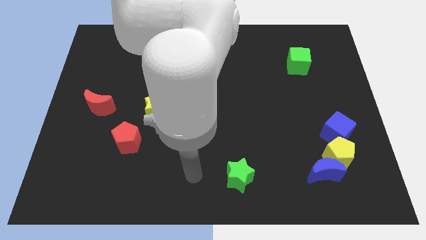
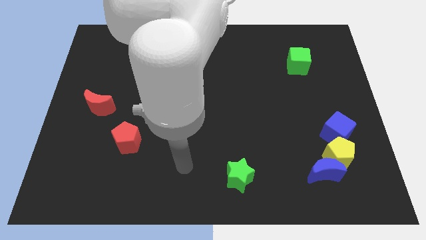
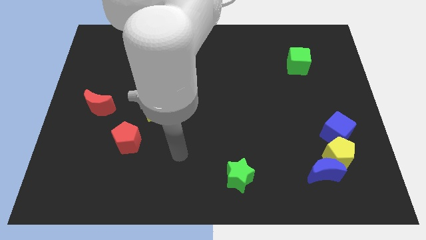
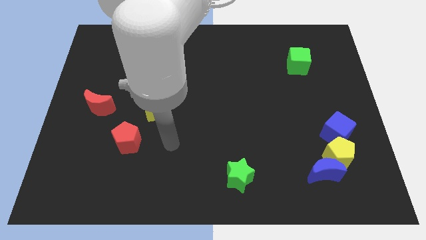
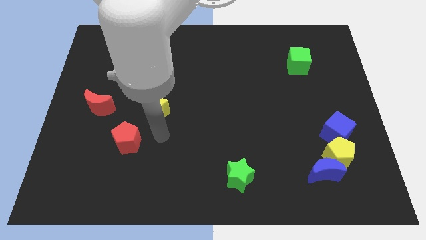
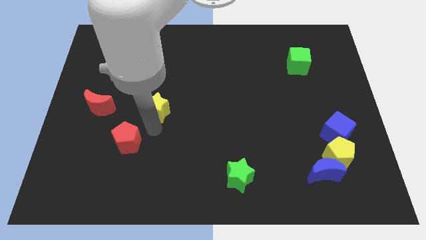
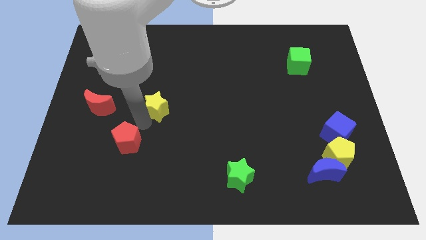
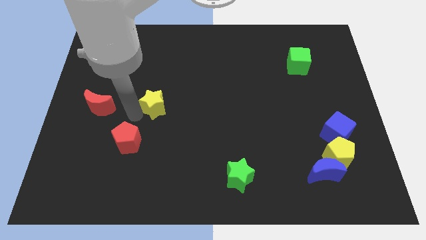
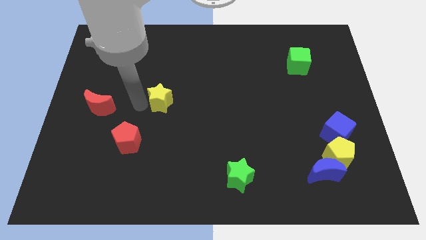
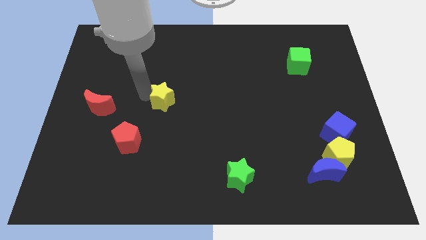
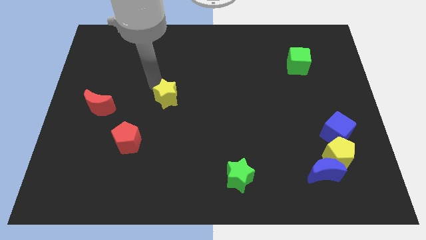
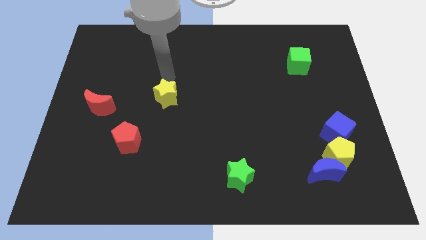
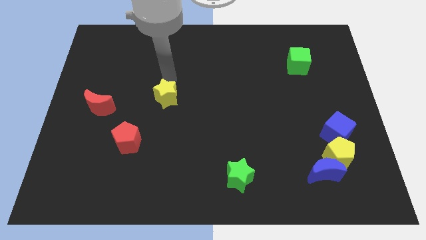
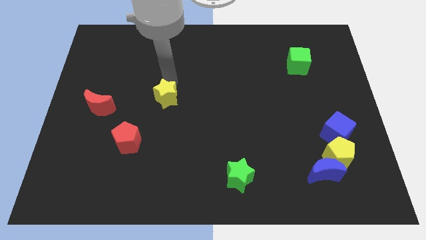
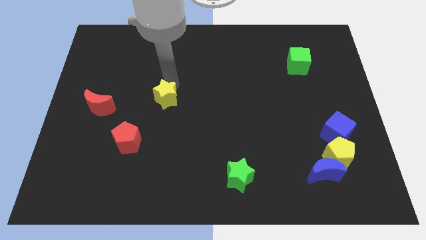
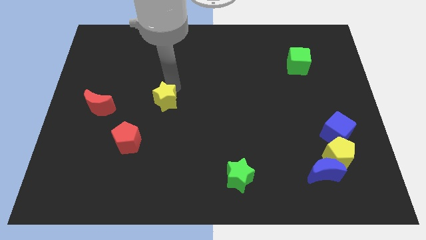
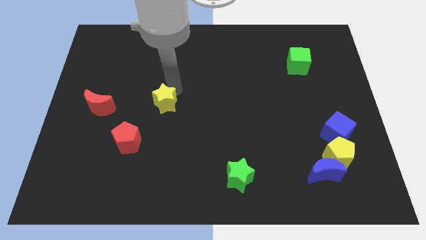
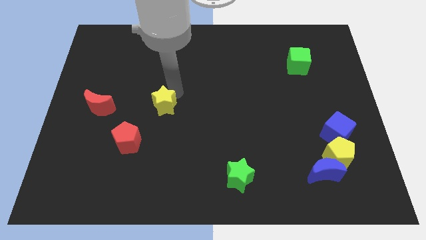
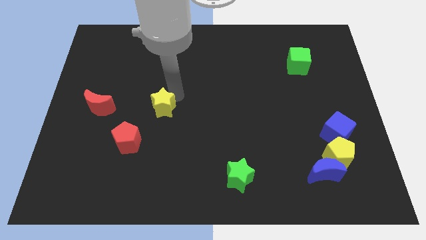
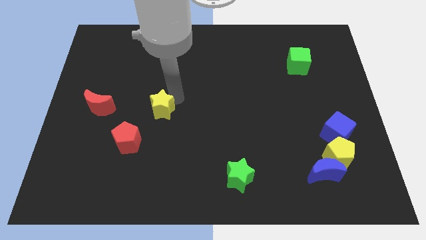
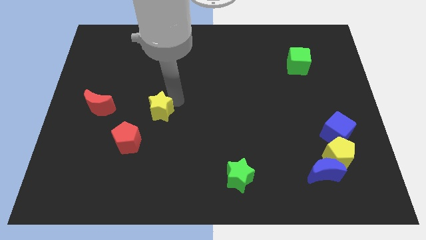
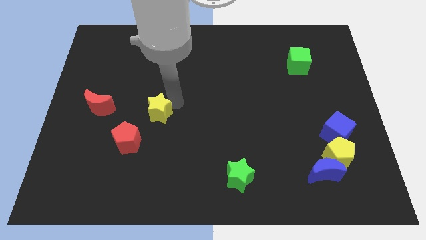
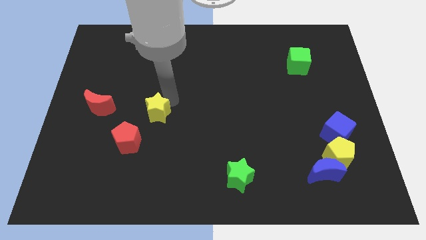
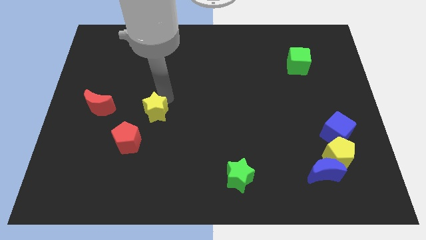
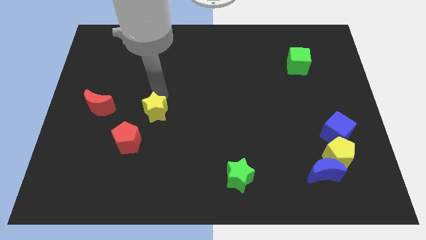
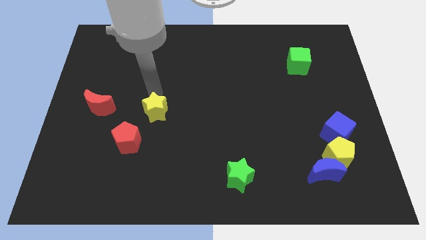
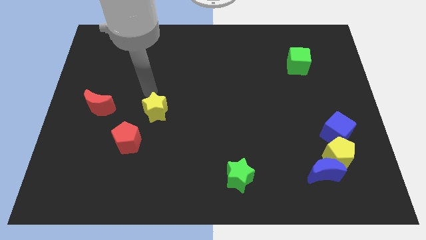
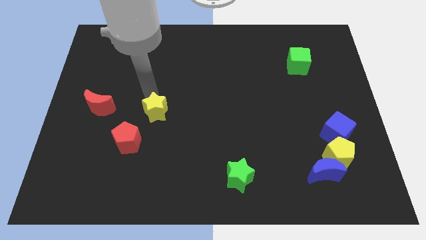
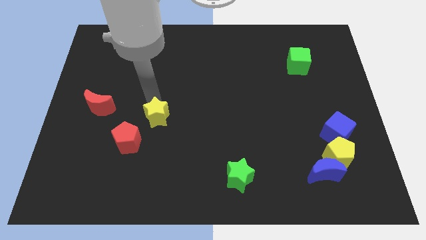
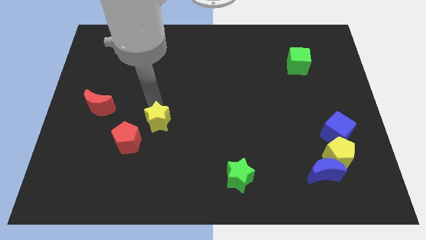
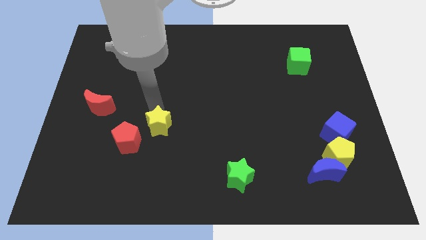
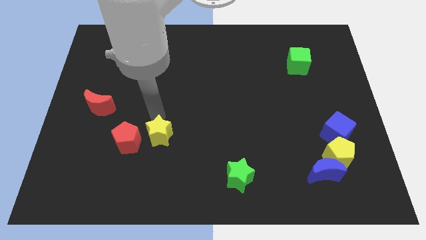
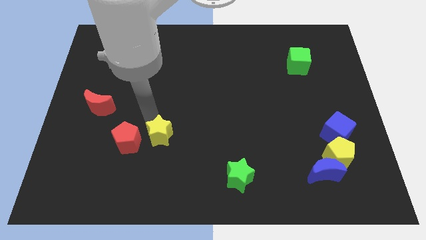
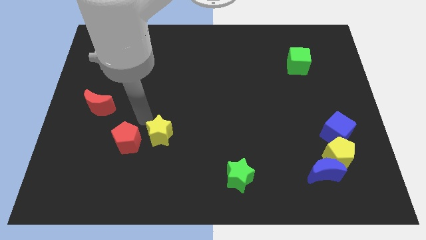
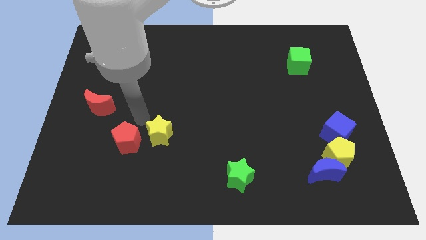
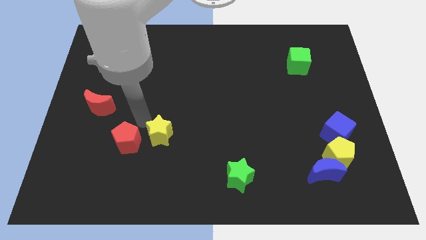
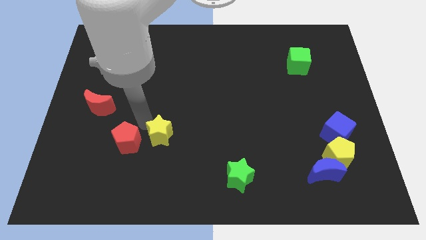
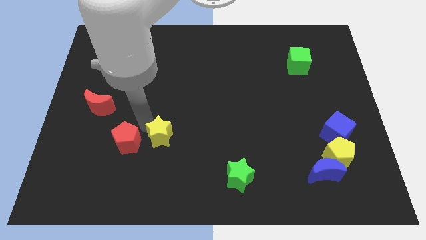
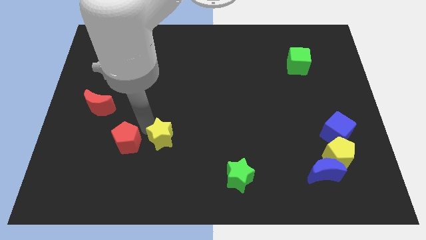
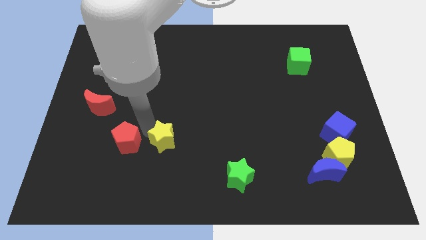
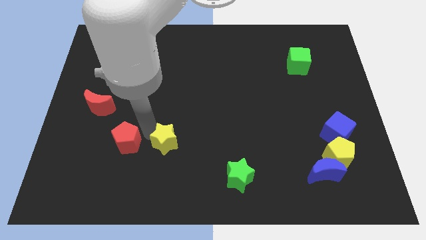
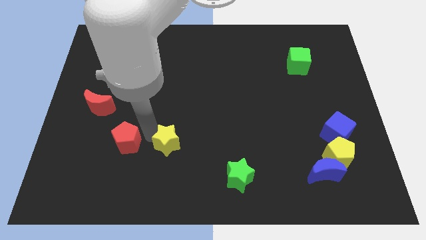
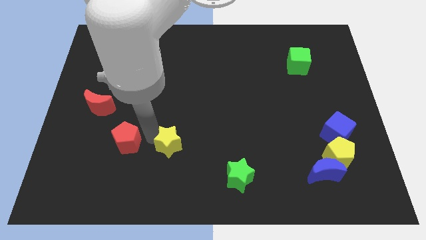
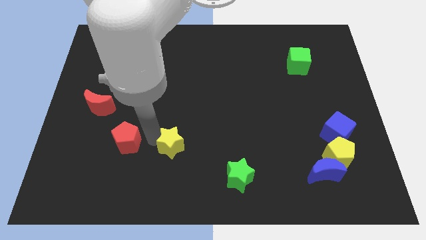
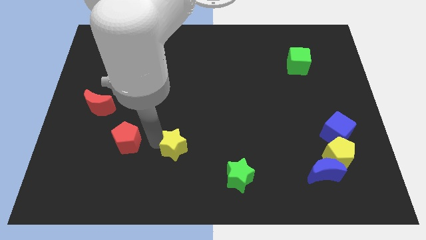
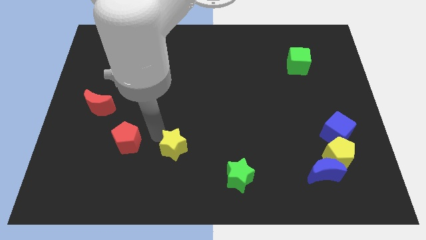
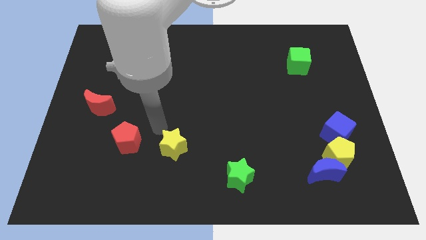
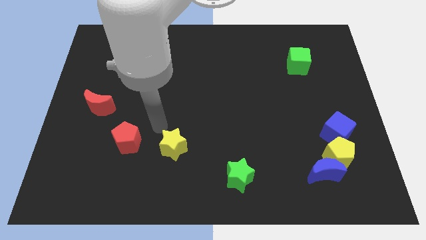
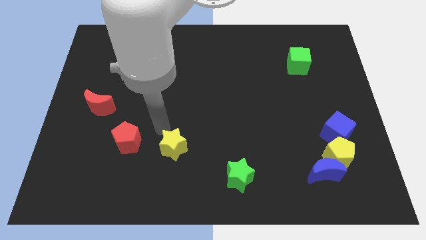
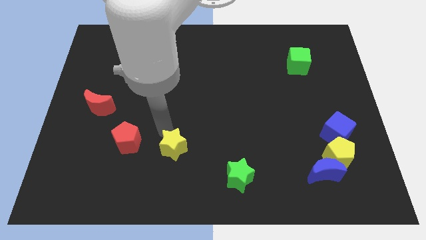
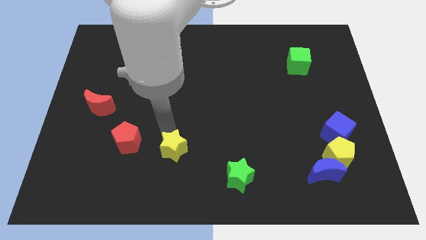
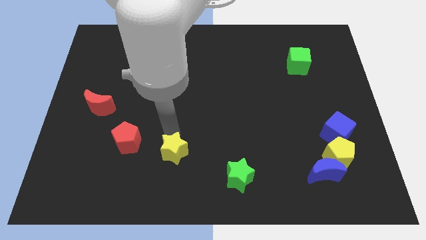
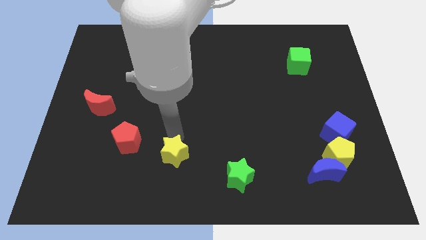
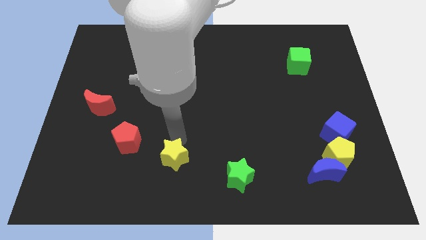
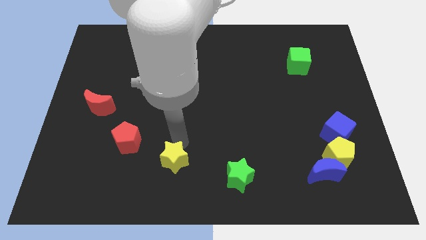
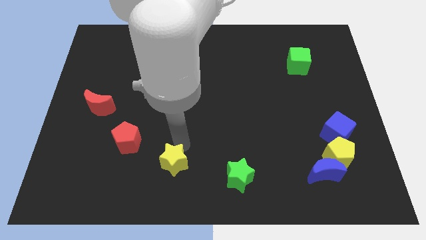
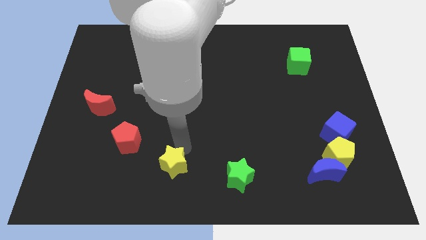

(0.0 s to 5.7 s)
slide the yellow star to the bottom

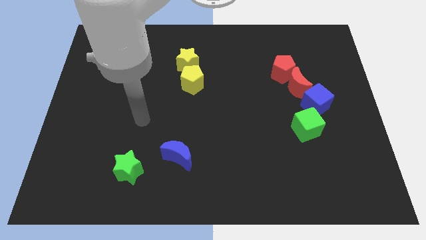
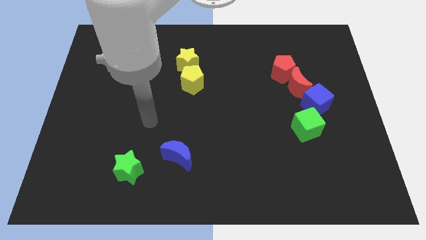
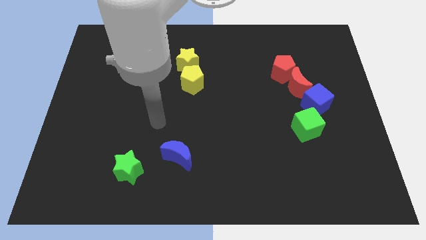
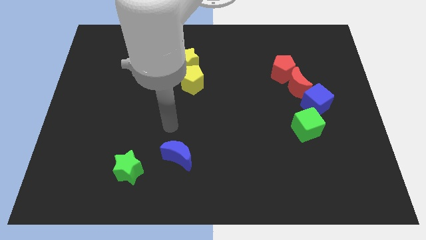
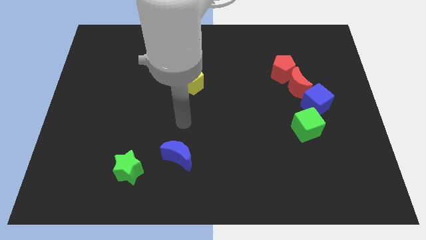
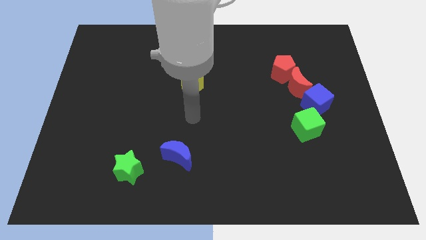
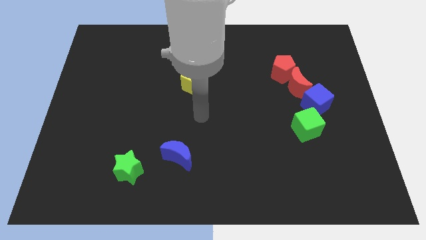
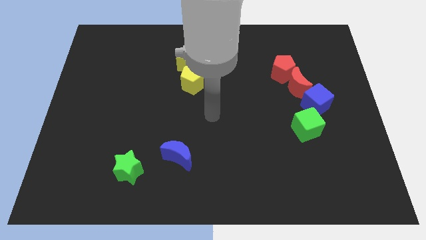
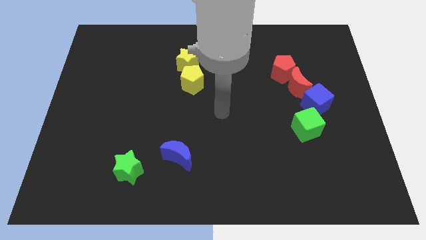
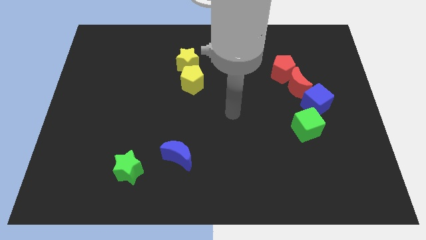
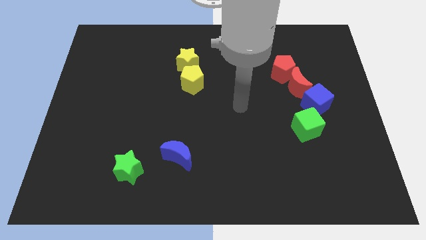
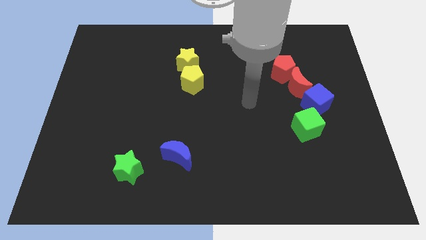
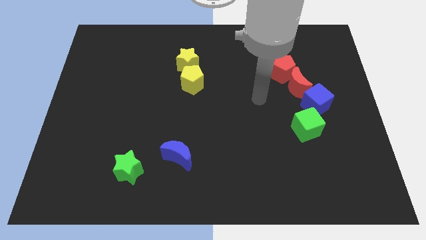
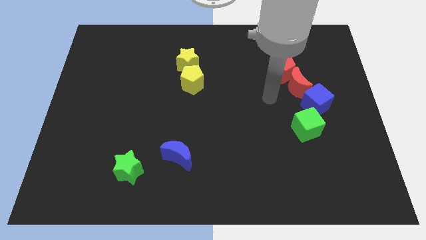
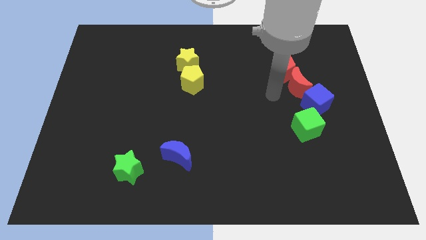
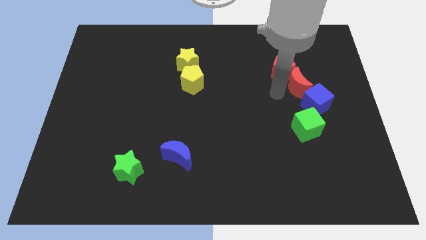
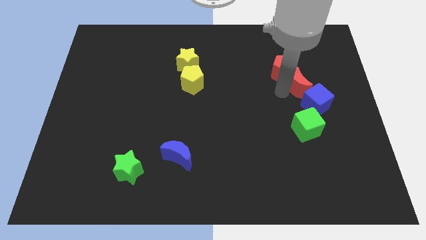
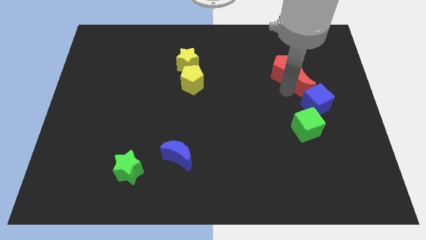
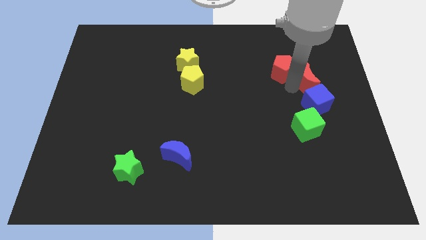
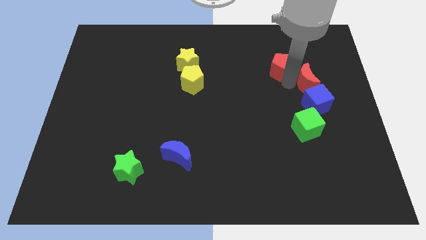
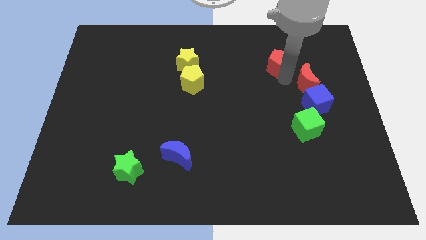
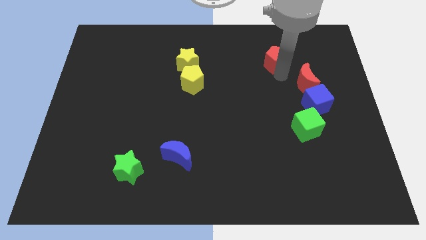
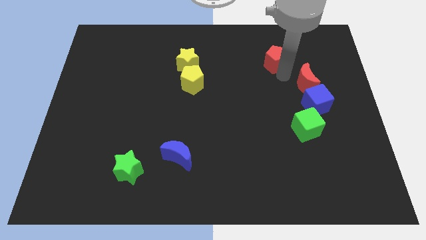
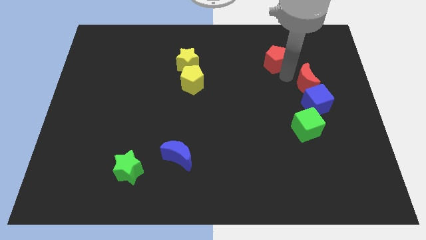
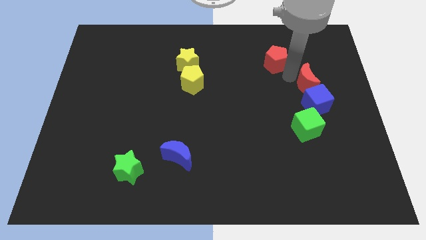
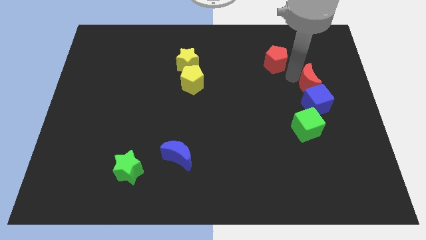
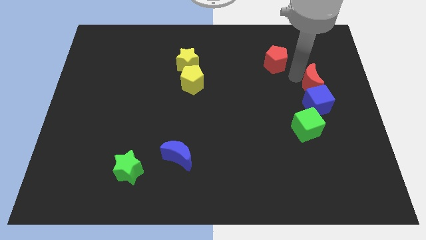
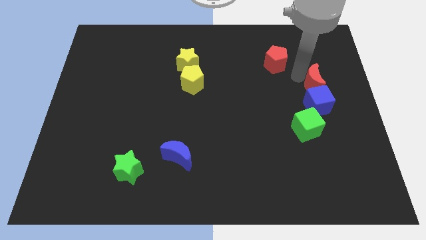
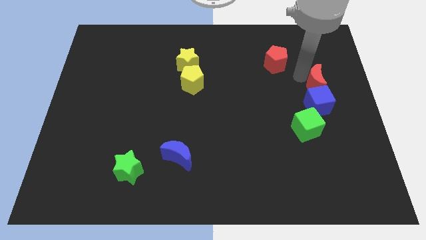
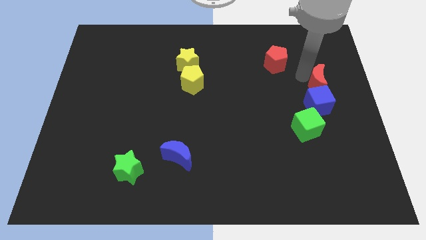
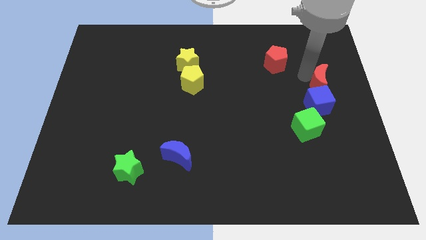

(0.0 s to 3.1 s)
push the red moon to the right side of the board
